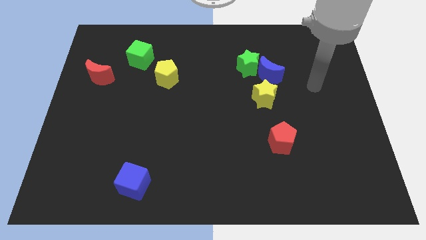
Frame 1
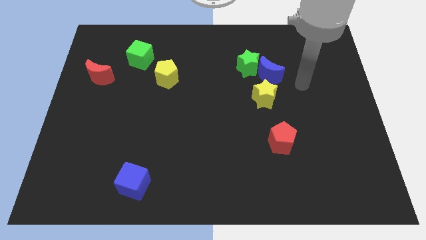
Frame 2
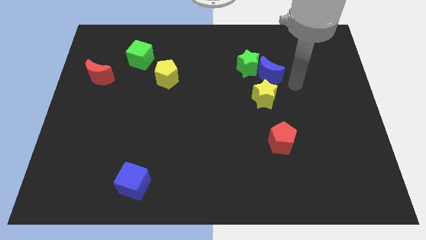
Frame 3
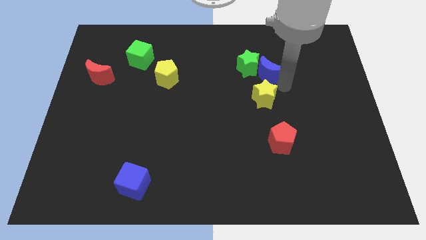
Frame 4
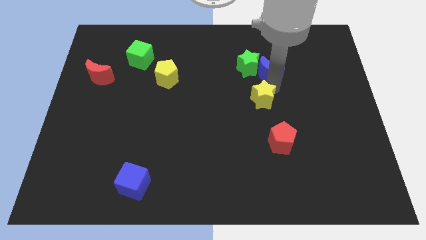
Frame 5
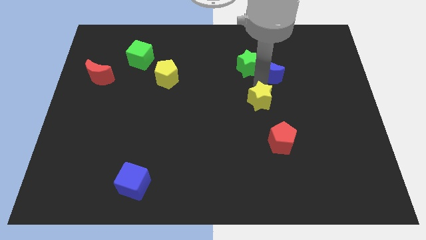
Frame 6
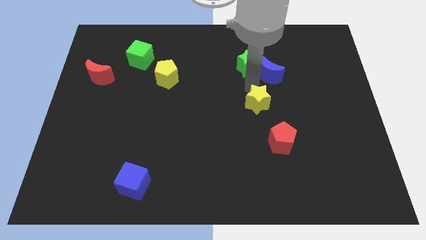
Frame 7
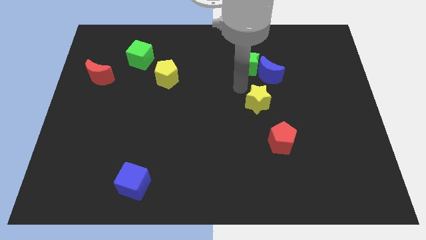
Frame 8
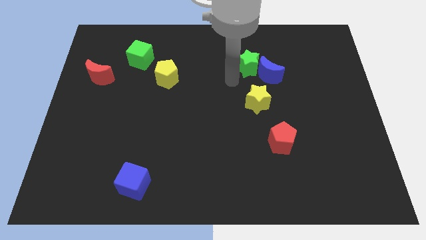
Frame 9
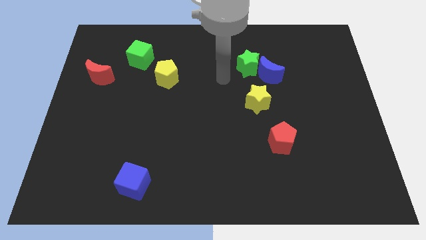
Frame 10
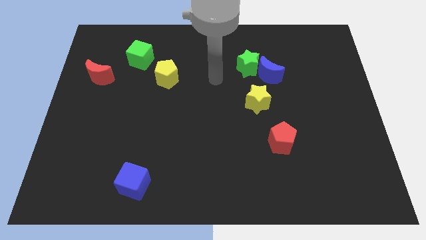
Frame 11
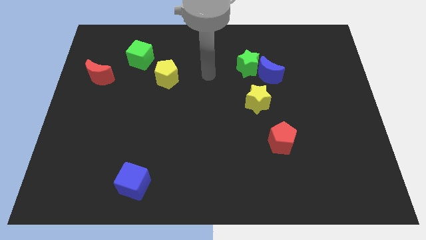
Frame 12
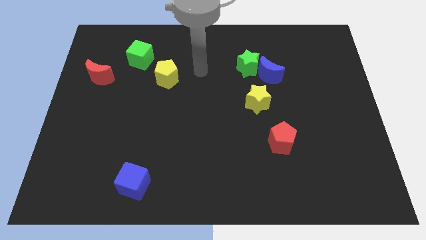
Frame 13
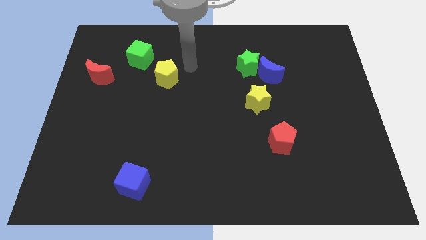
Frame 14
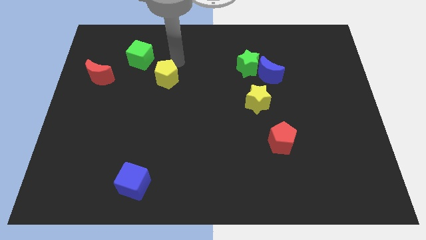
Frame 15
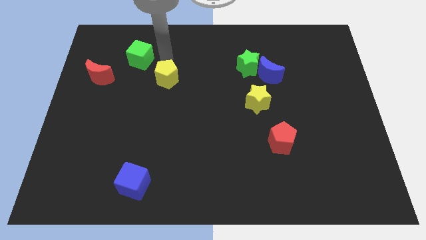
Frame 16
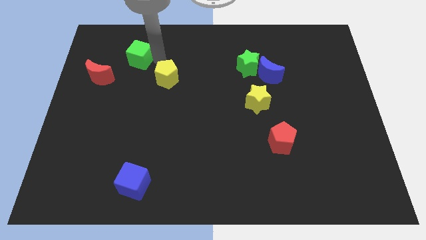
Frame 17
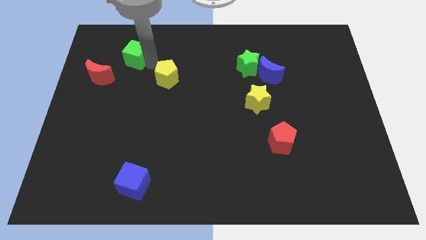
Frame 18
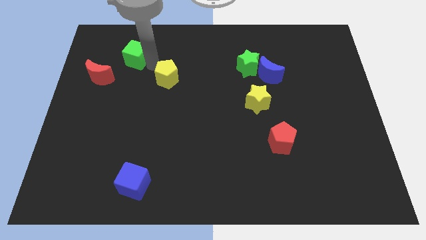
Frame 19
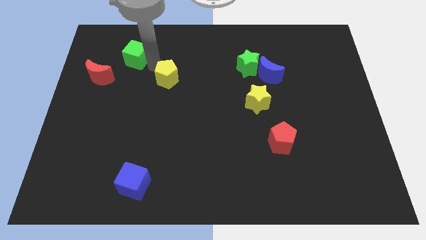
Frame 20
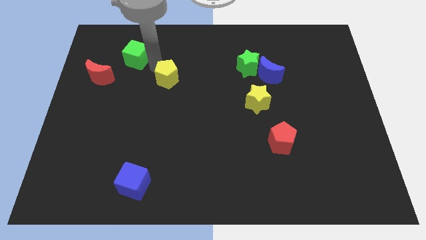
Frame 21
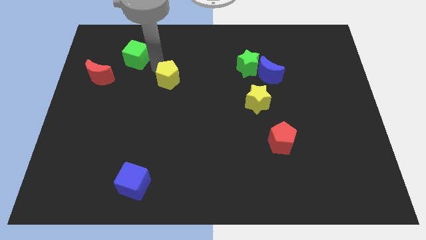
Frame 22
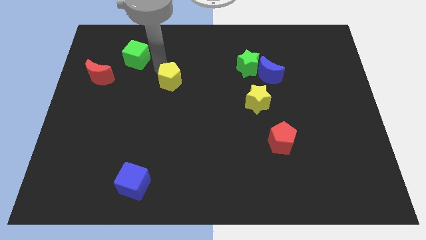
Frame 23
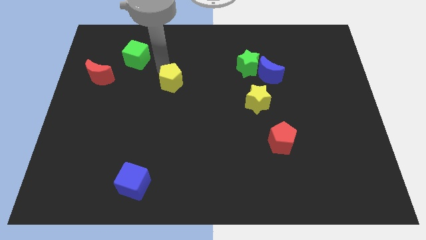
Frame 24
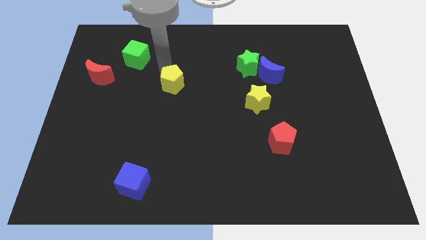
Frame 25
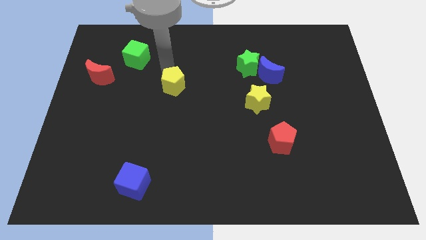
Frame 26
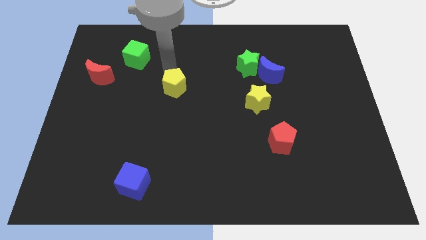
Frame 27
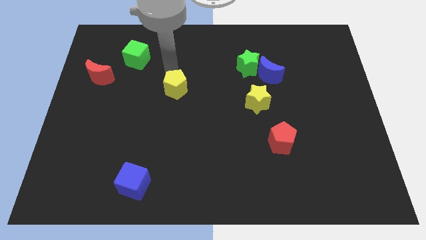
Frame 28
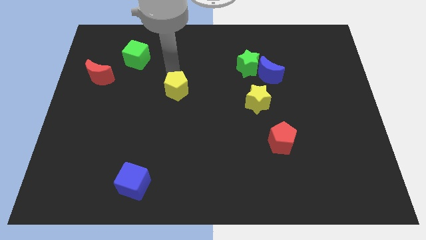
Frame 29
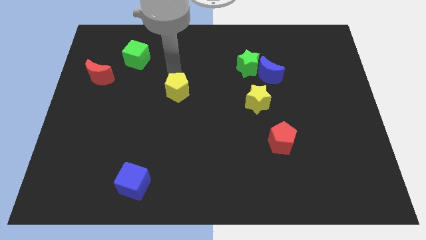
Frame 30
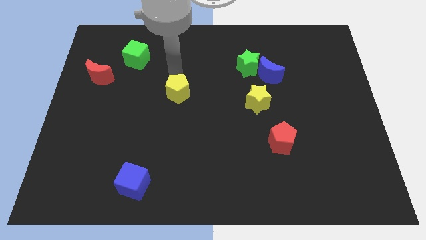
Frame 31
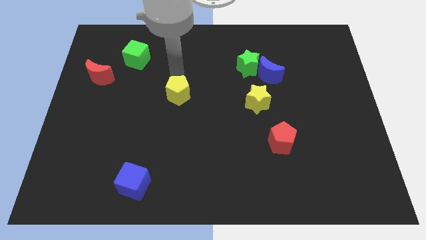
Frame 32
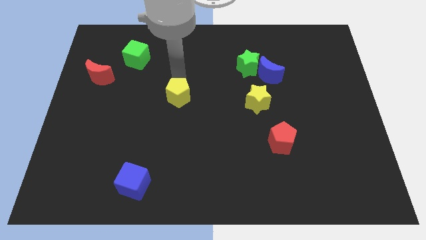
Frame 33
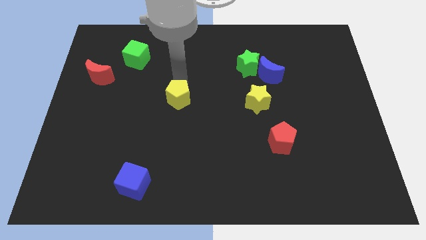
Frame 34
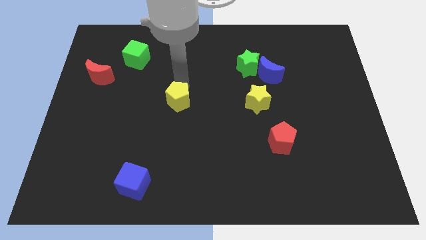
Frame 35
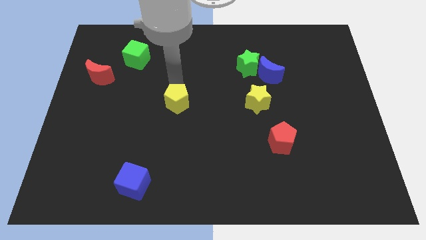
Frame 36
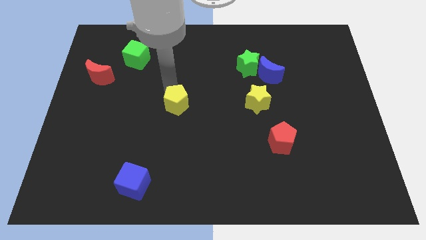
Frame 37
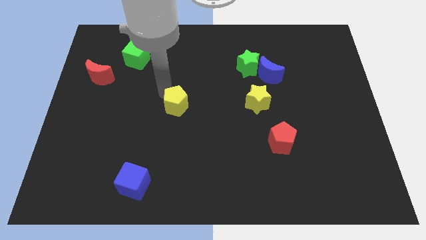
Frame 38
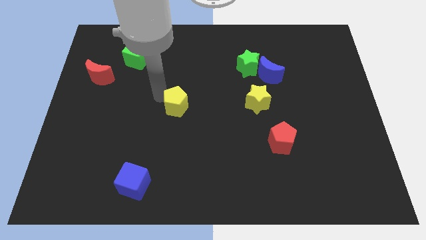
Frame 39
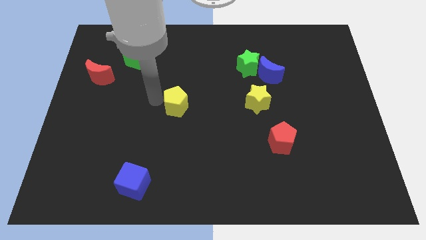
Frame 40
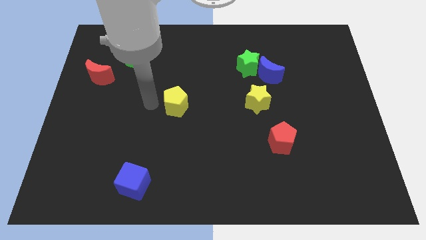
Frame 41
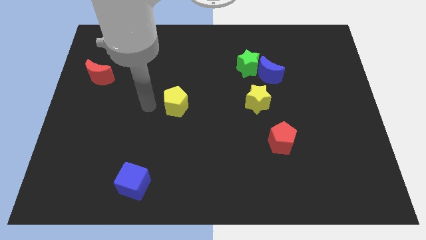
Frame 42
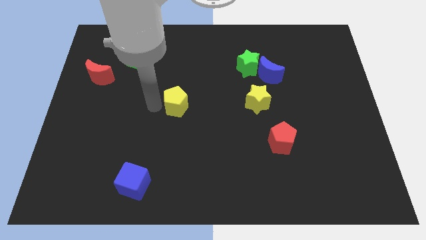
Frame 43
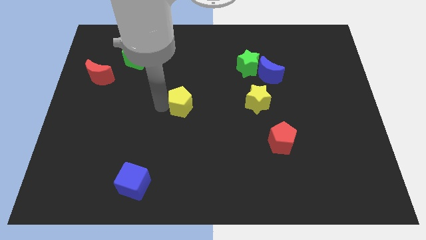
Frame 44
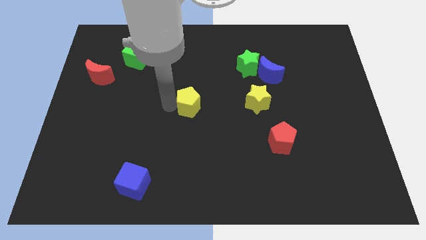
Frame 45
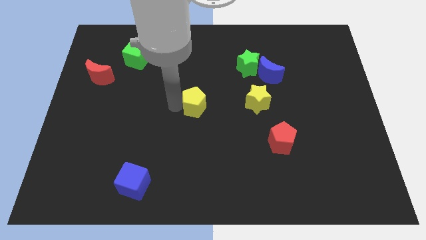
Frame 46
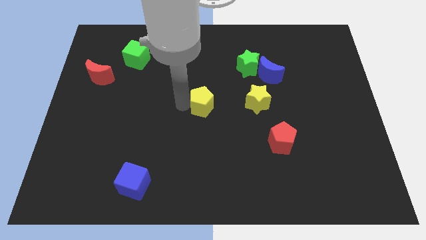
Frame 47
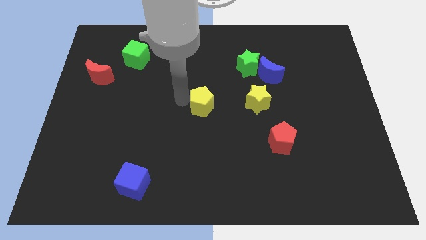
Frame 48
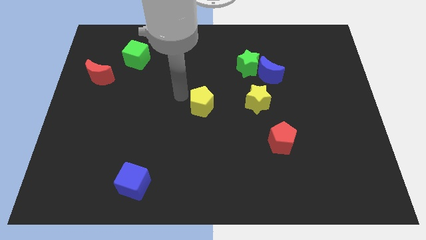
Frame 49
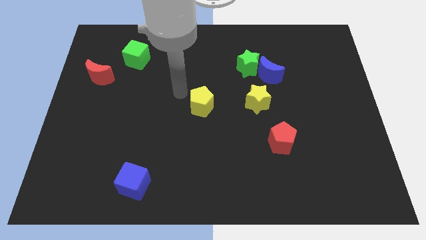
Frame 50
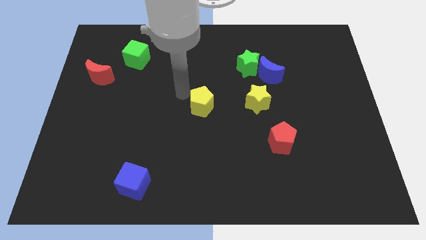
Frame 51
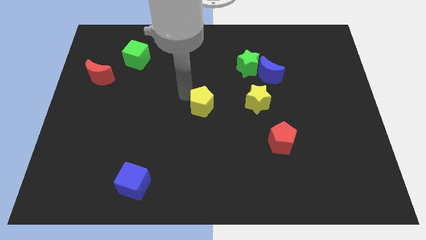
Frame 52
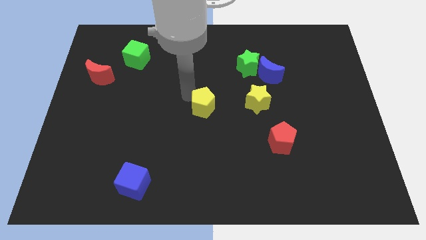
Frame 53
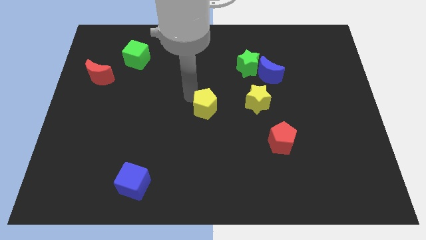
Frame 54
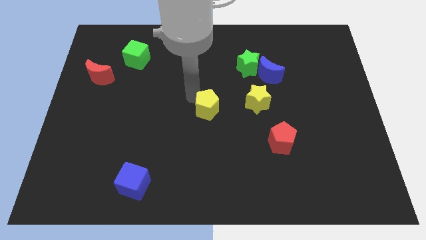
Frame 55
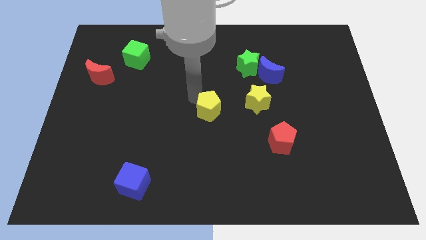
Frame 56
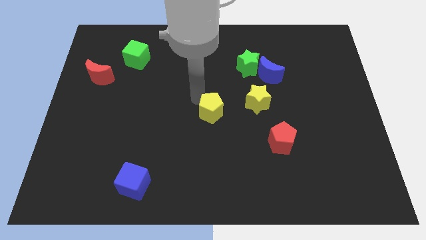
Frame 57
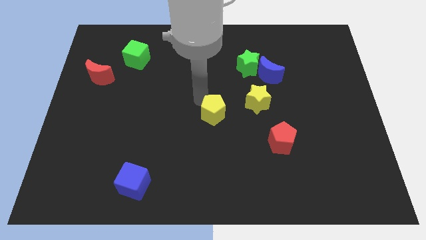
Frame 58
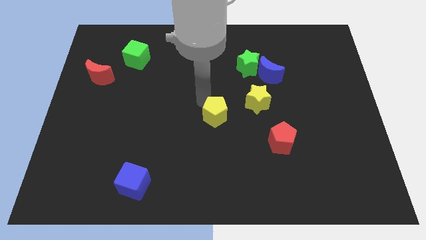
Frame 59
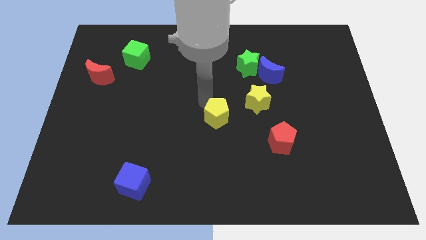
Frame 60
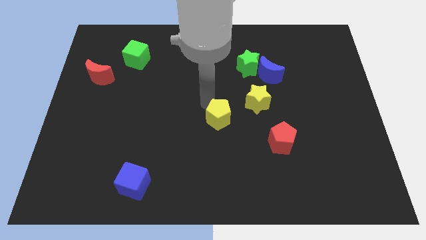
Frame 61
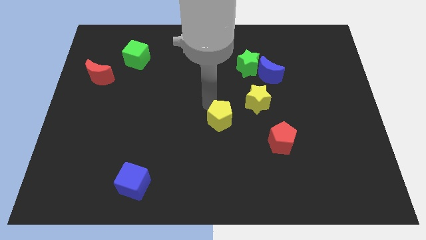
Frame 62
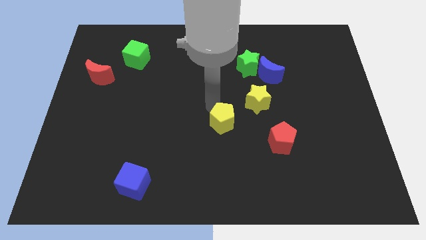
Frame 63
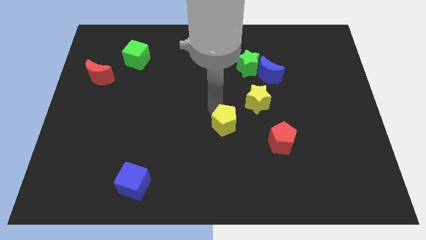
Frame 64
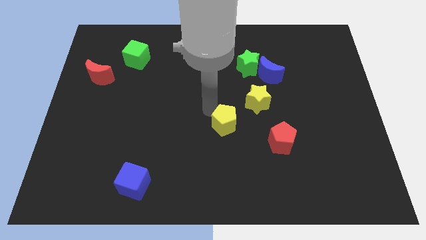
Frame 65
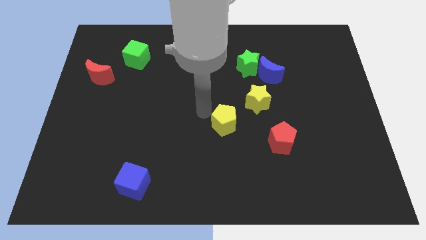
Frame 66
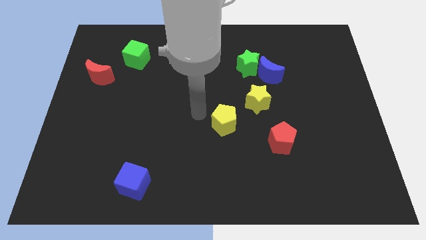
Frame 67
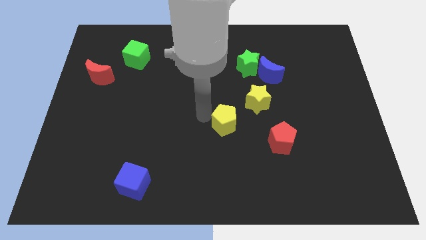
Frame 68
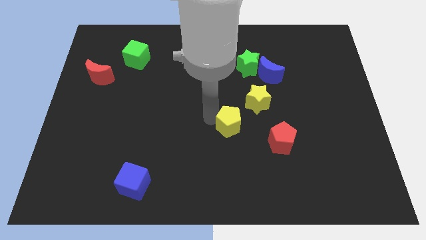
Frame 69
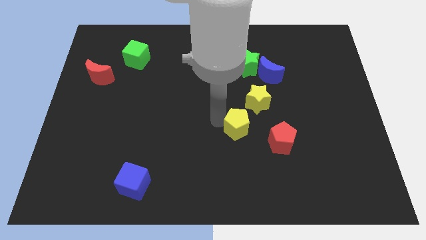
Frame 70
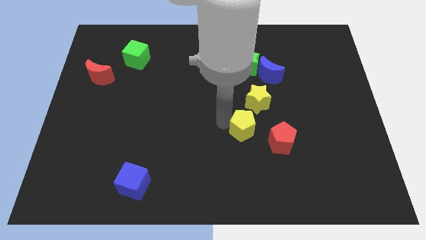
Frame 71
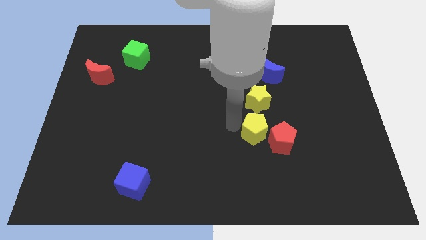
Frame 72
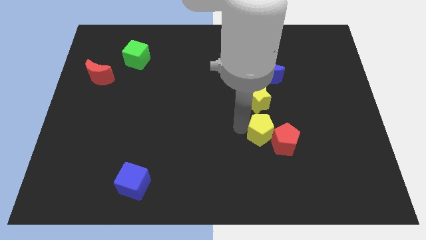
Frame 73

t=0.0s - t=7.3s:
slide the yellow pentagon towards the red pentagon

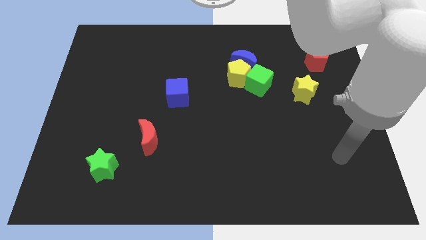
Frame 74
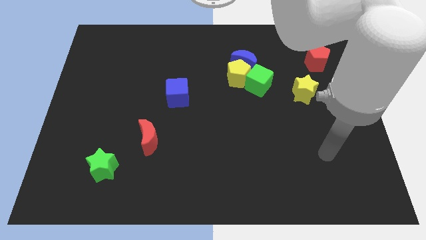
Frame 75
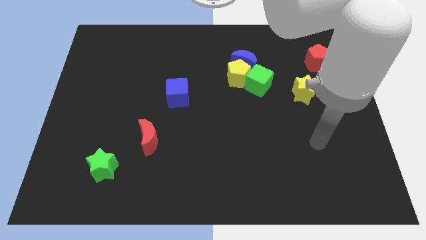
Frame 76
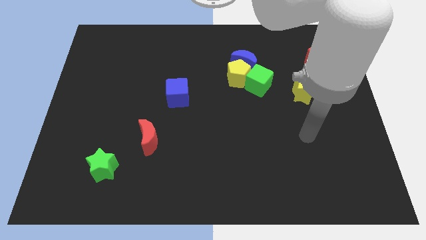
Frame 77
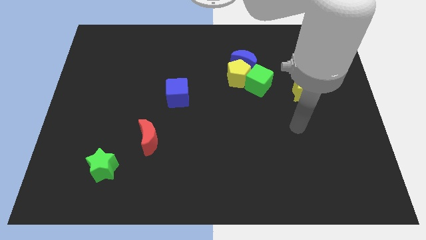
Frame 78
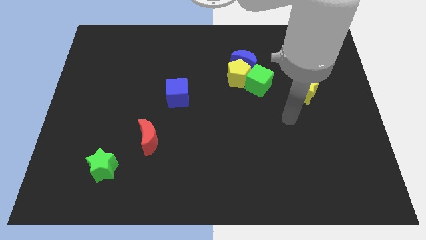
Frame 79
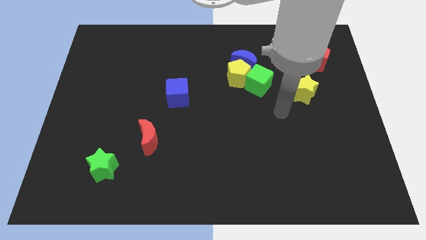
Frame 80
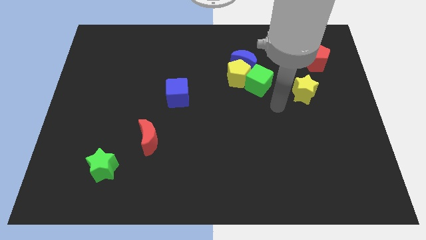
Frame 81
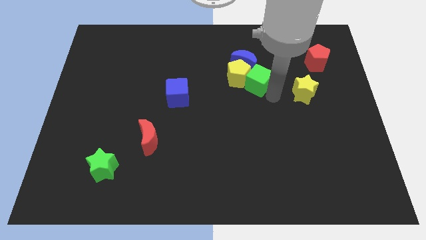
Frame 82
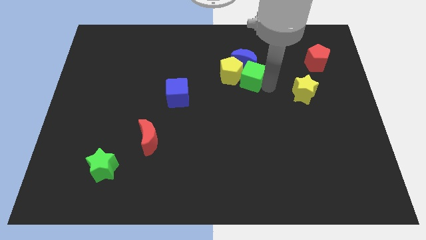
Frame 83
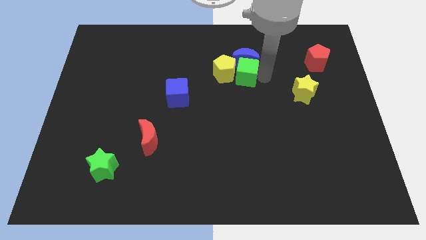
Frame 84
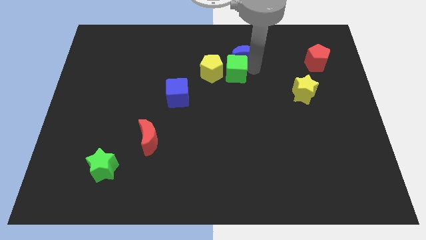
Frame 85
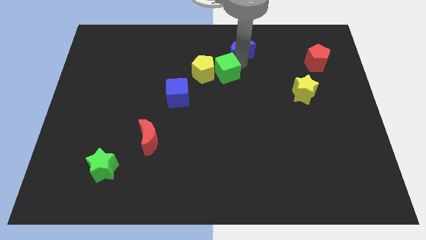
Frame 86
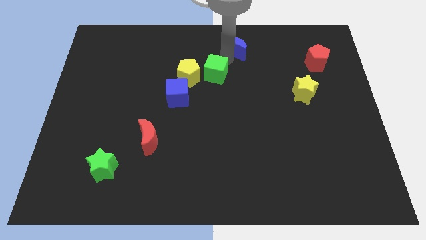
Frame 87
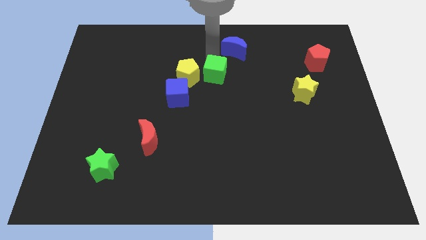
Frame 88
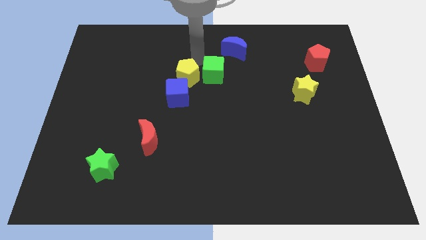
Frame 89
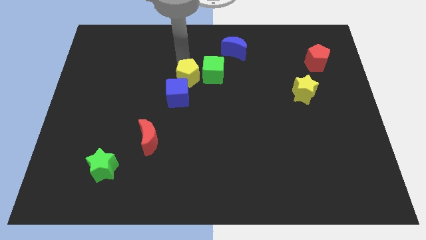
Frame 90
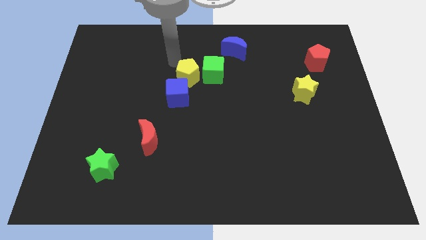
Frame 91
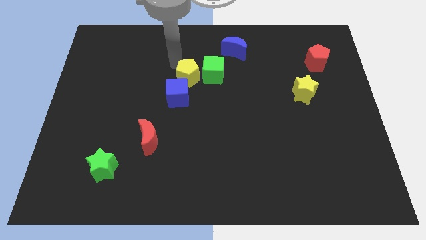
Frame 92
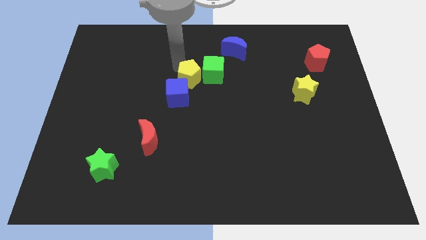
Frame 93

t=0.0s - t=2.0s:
put the yellow pentagon close to the blue cube
